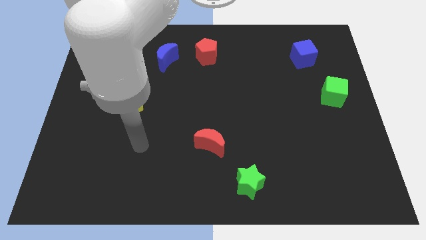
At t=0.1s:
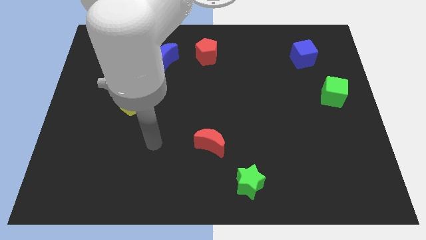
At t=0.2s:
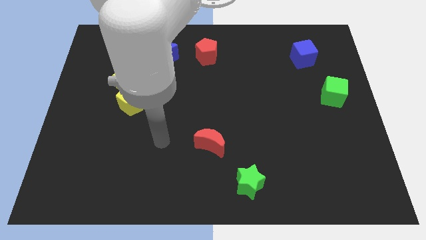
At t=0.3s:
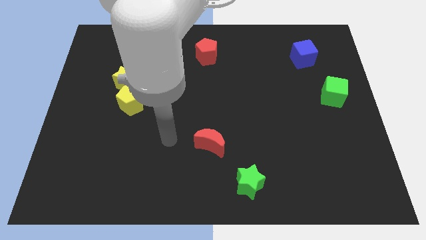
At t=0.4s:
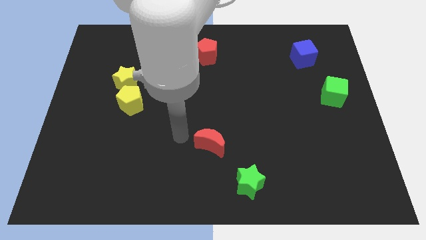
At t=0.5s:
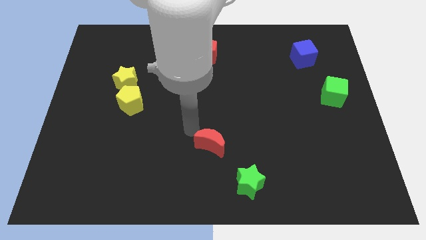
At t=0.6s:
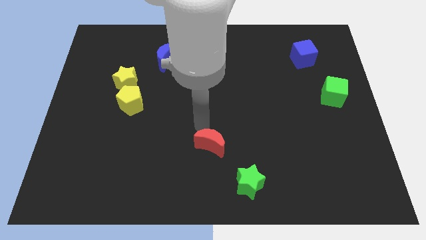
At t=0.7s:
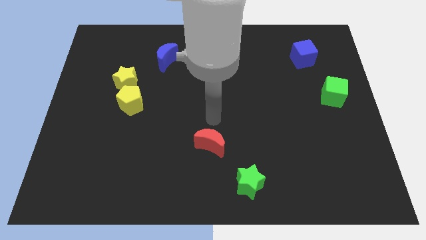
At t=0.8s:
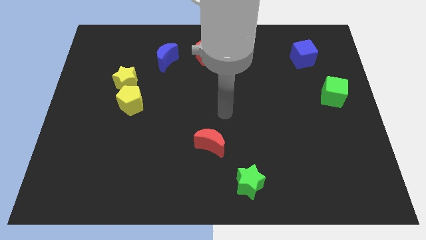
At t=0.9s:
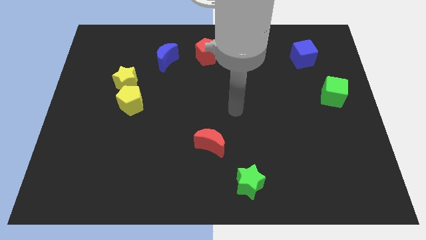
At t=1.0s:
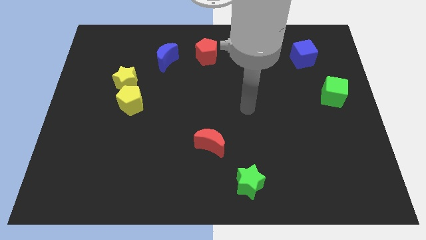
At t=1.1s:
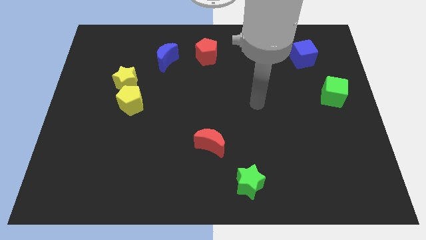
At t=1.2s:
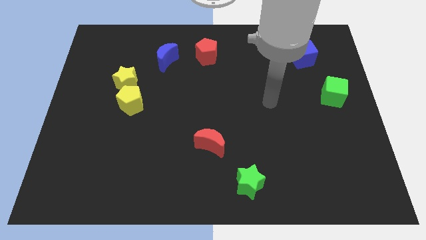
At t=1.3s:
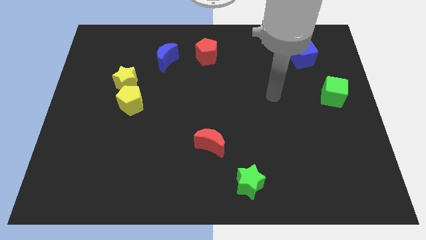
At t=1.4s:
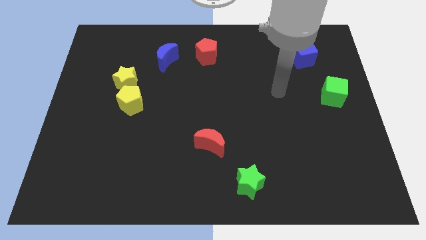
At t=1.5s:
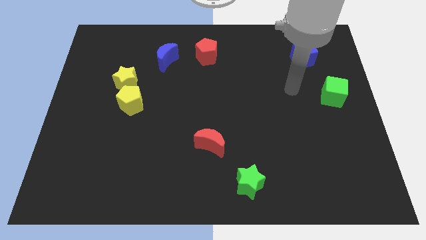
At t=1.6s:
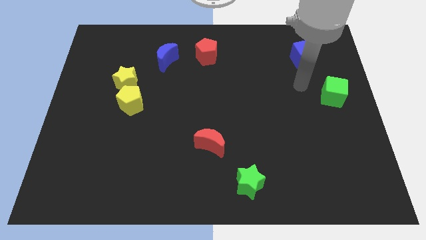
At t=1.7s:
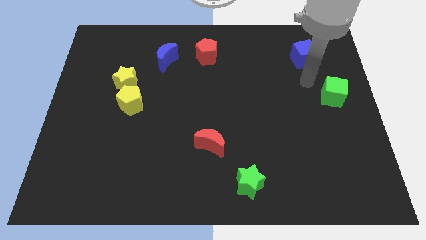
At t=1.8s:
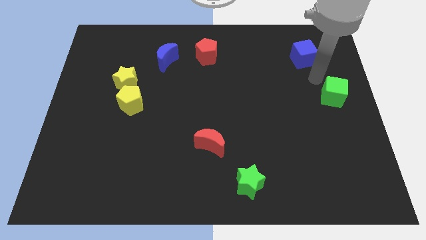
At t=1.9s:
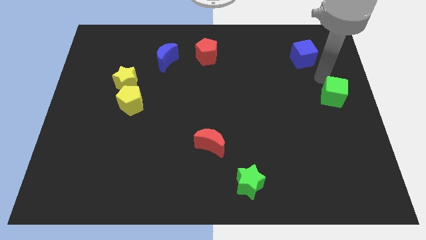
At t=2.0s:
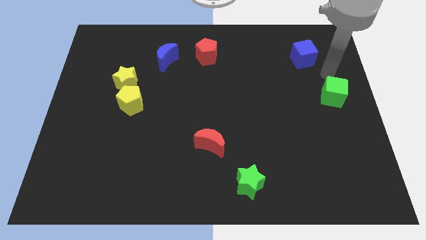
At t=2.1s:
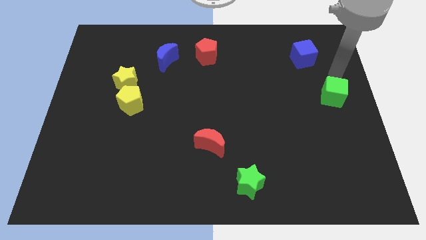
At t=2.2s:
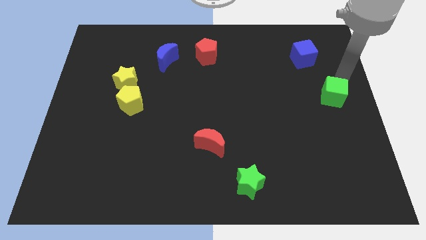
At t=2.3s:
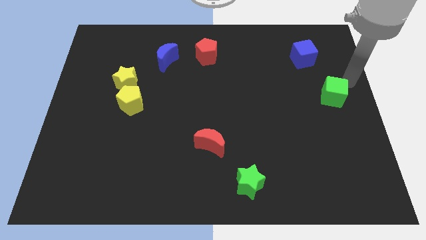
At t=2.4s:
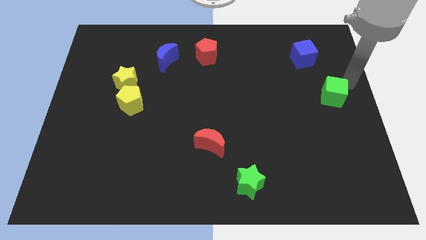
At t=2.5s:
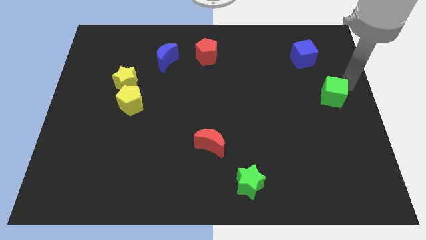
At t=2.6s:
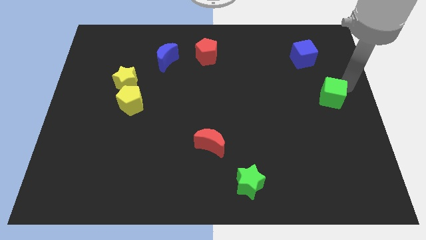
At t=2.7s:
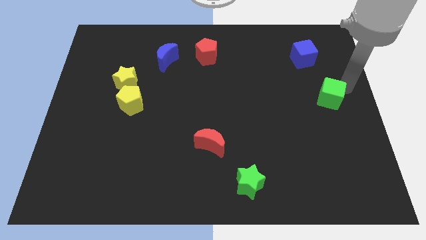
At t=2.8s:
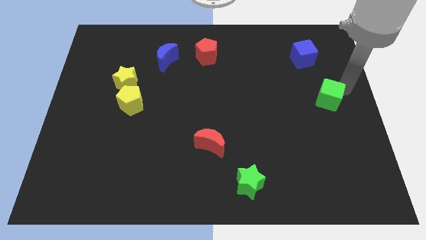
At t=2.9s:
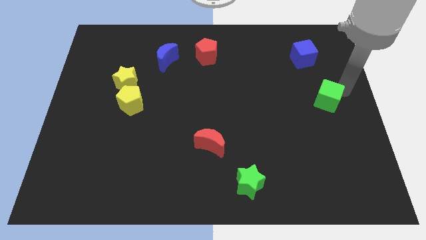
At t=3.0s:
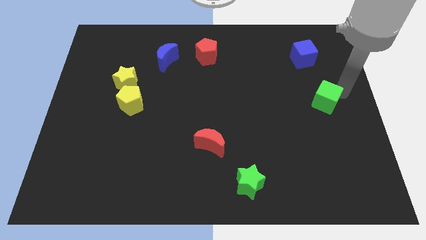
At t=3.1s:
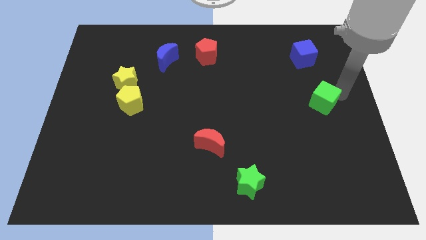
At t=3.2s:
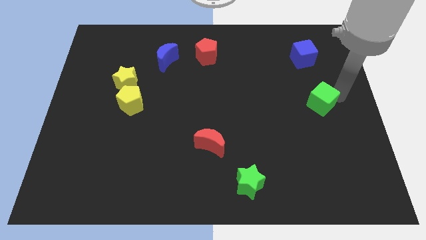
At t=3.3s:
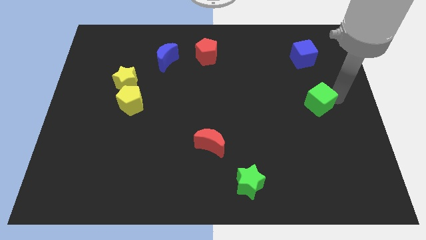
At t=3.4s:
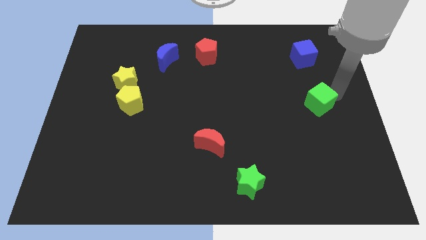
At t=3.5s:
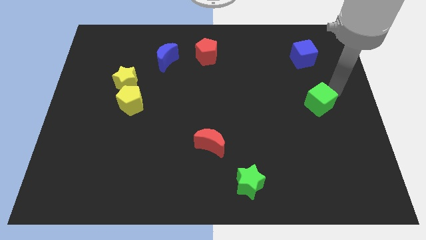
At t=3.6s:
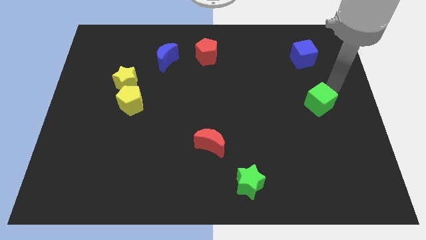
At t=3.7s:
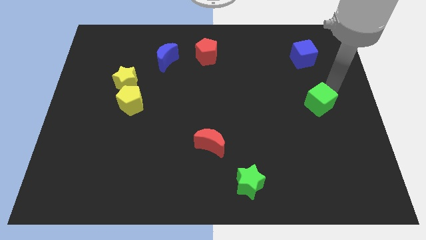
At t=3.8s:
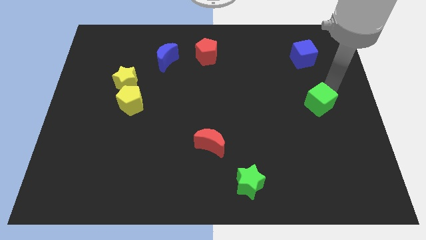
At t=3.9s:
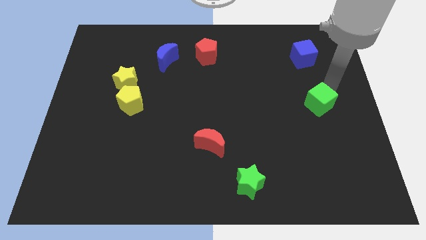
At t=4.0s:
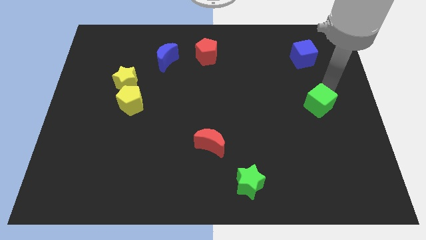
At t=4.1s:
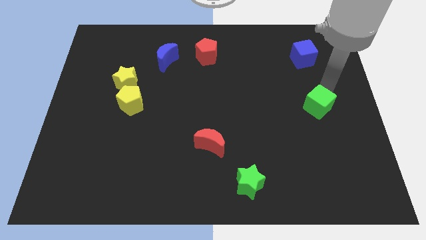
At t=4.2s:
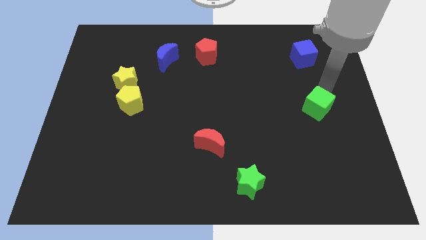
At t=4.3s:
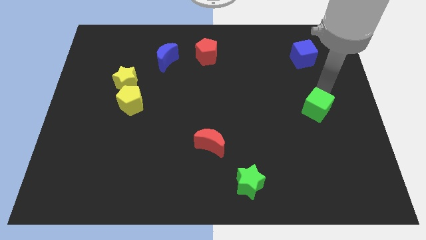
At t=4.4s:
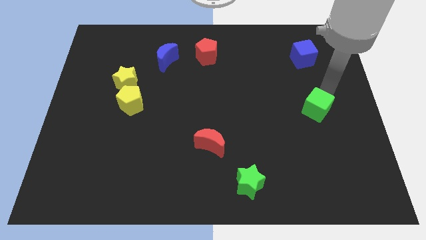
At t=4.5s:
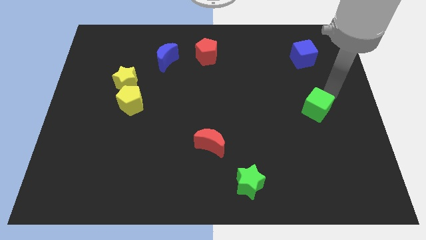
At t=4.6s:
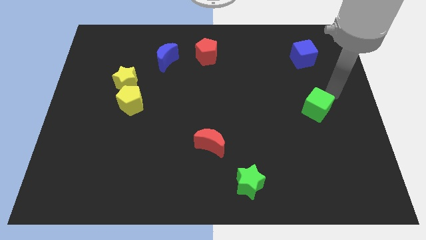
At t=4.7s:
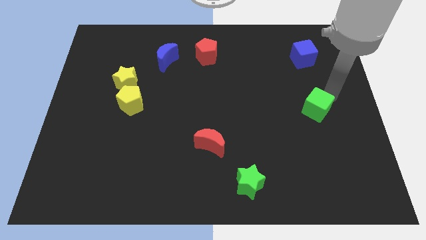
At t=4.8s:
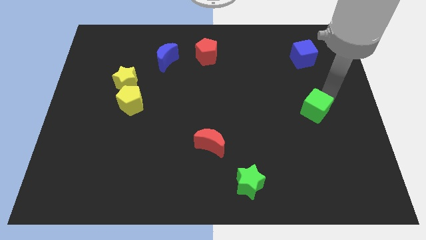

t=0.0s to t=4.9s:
slide the green cube slightly down and to the left

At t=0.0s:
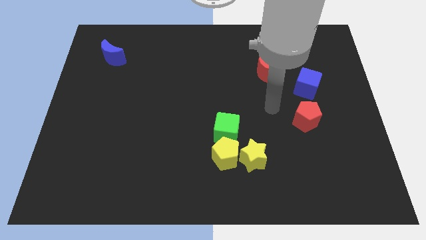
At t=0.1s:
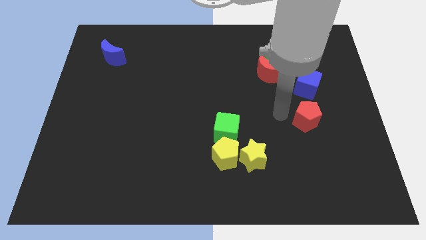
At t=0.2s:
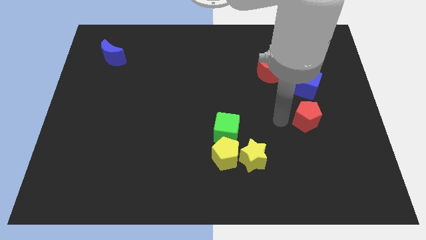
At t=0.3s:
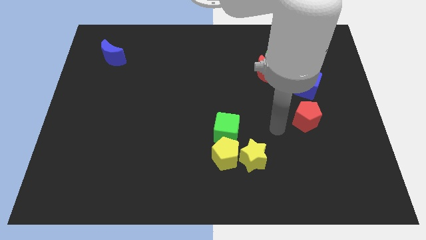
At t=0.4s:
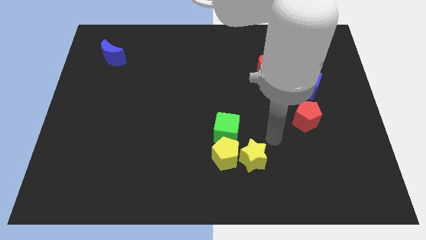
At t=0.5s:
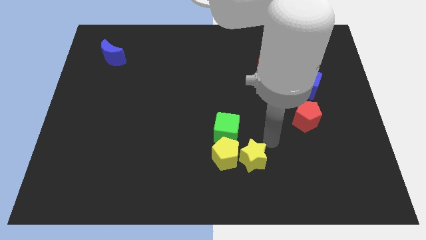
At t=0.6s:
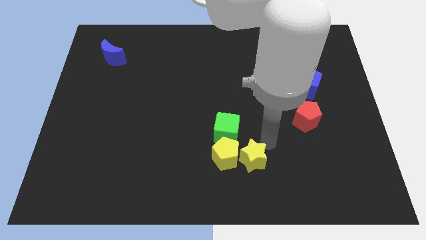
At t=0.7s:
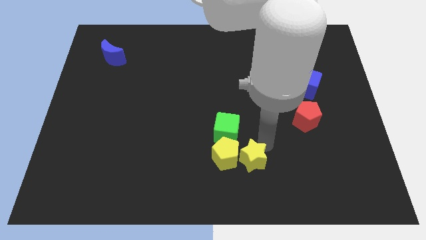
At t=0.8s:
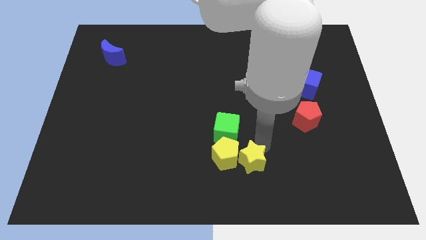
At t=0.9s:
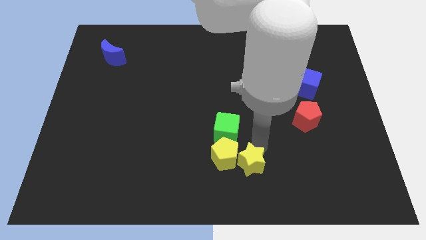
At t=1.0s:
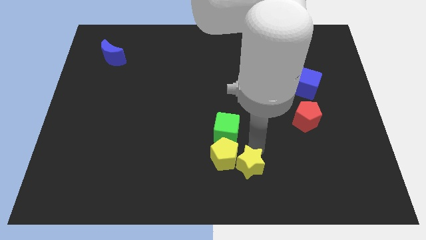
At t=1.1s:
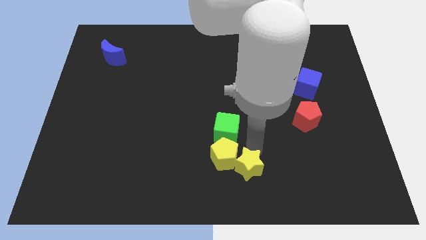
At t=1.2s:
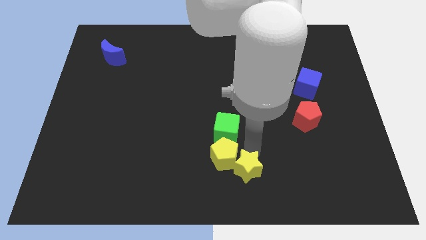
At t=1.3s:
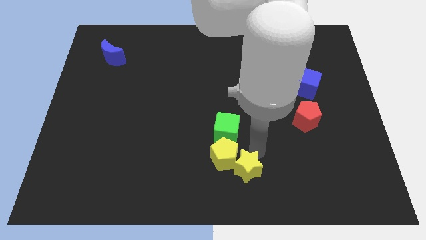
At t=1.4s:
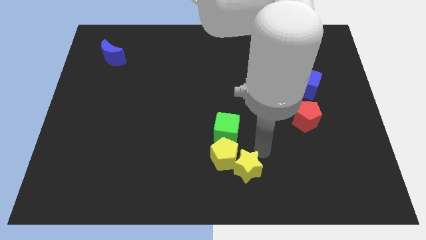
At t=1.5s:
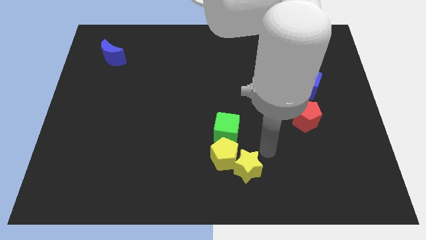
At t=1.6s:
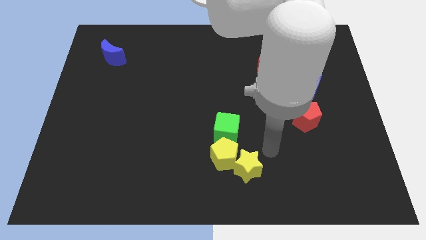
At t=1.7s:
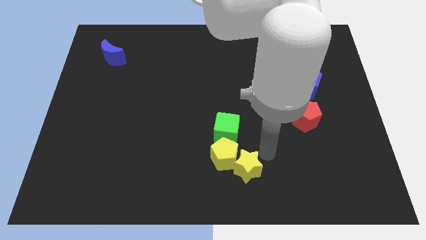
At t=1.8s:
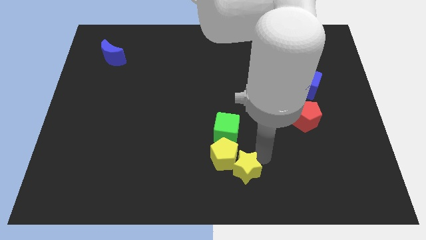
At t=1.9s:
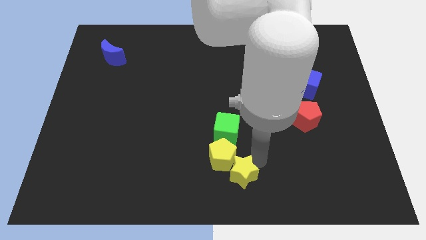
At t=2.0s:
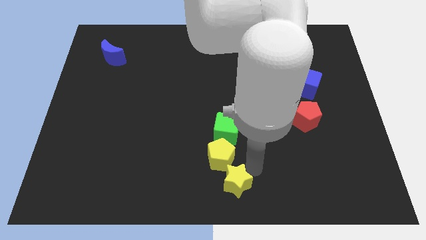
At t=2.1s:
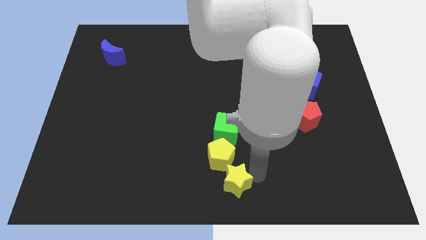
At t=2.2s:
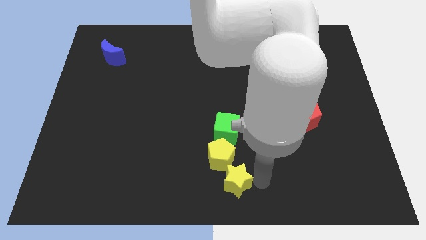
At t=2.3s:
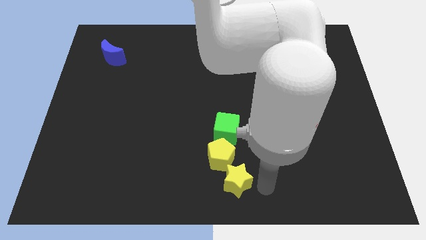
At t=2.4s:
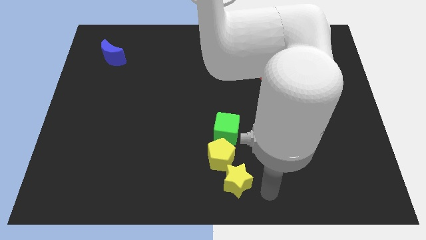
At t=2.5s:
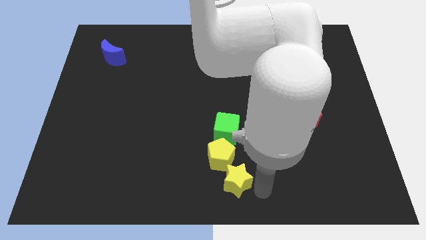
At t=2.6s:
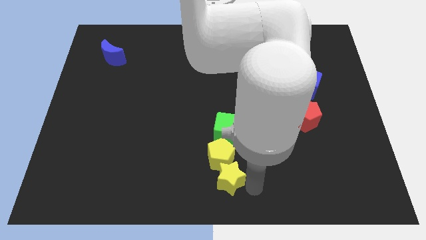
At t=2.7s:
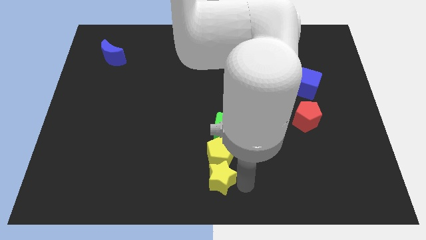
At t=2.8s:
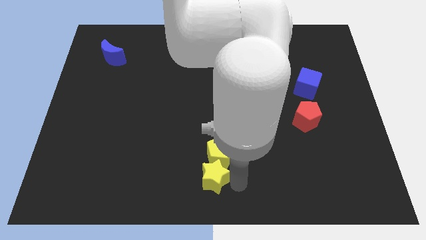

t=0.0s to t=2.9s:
move the yellow star a little bit to the left

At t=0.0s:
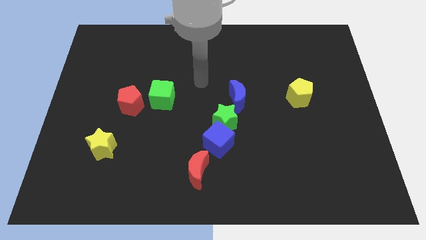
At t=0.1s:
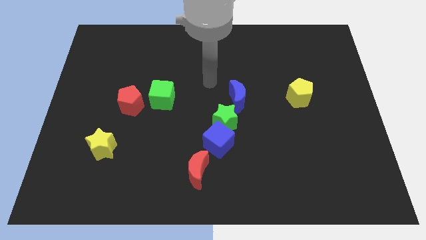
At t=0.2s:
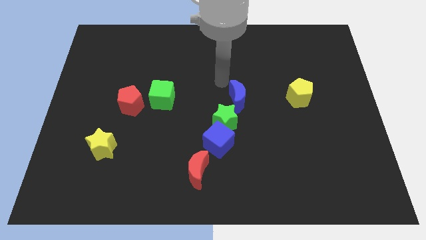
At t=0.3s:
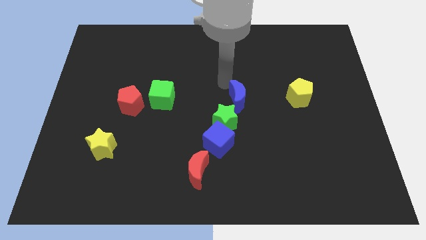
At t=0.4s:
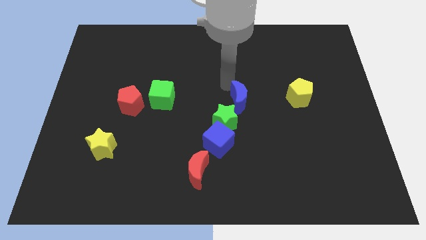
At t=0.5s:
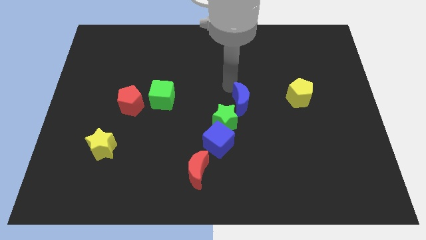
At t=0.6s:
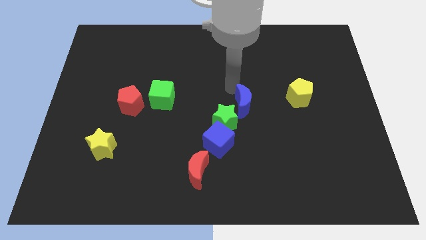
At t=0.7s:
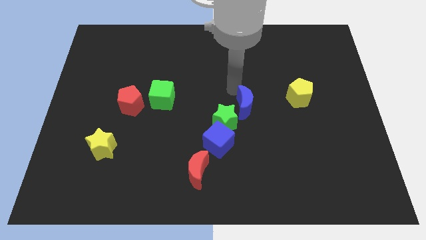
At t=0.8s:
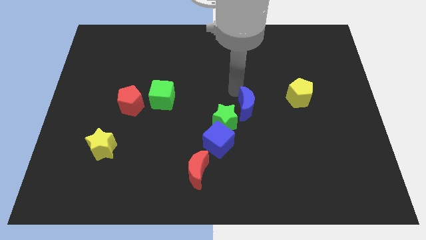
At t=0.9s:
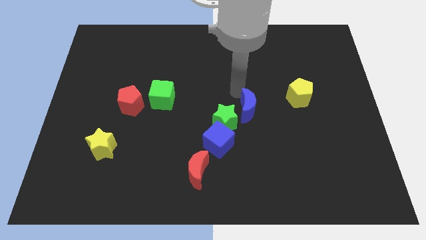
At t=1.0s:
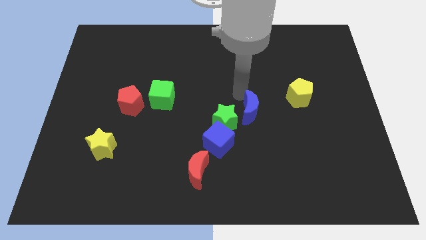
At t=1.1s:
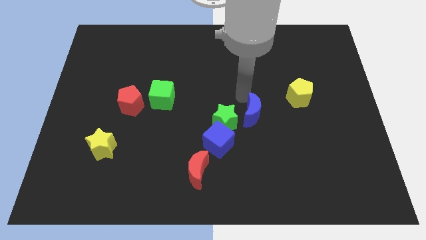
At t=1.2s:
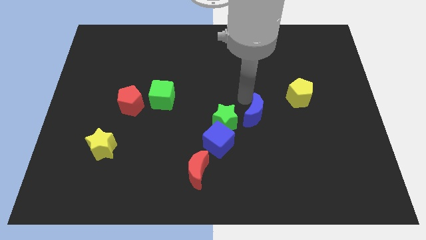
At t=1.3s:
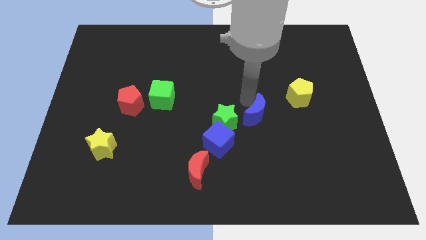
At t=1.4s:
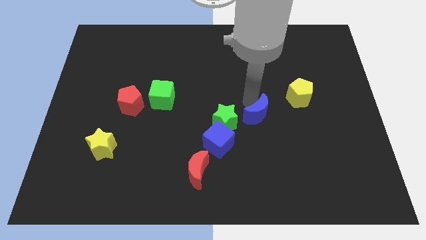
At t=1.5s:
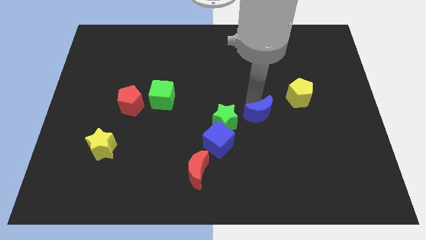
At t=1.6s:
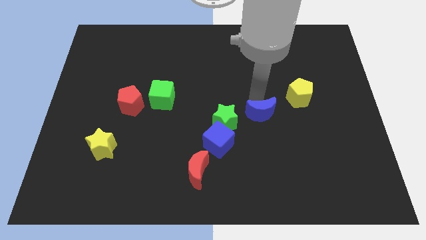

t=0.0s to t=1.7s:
slide the blue moon a little bit downwards and then right
